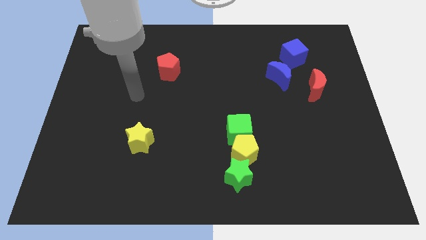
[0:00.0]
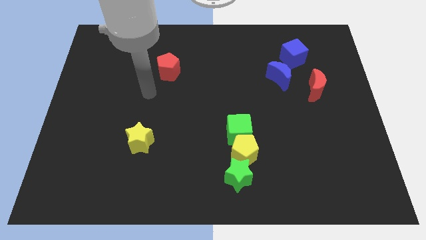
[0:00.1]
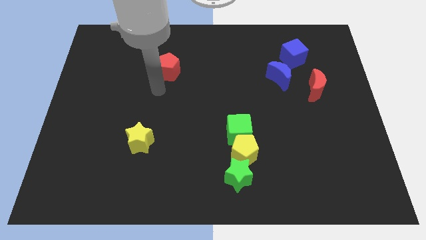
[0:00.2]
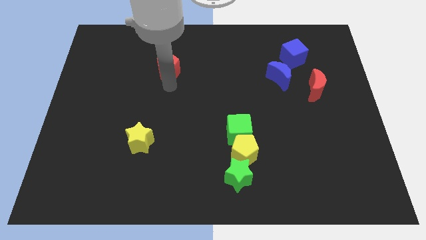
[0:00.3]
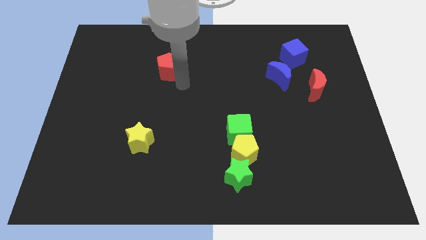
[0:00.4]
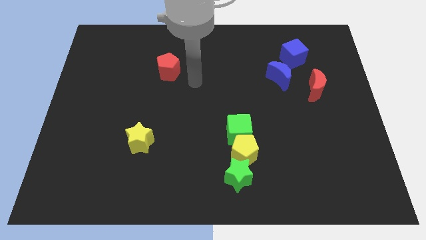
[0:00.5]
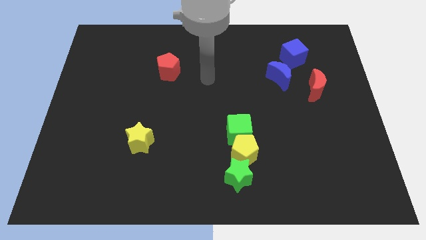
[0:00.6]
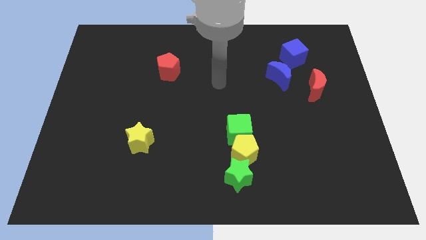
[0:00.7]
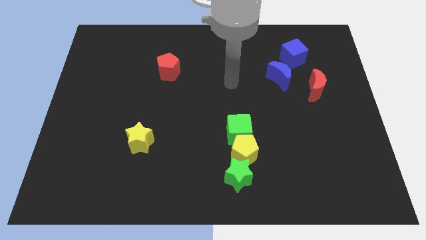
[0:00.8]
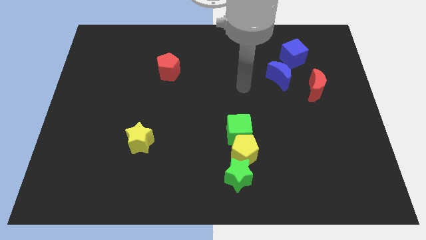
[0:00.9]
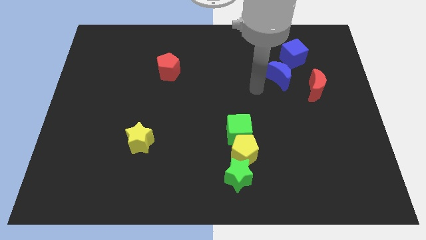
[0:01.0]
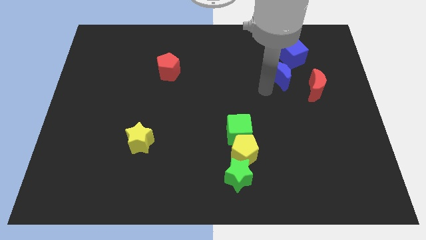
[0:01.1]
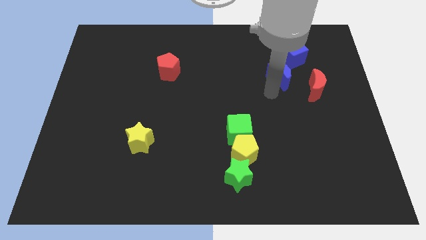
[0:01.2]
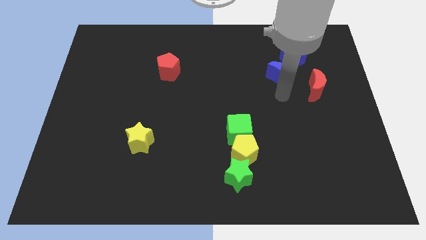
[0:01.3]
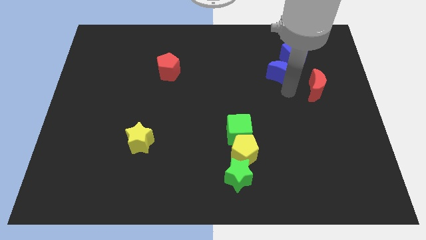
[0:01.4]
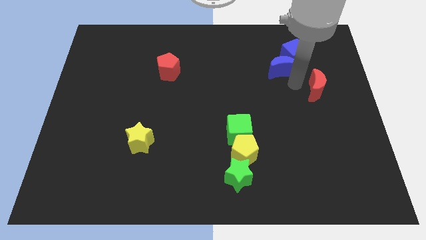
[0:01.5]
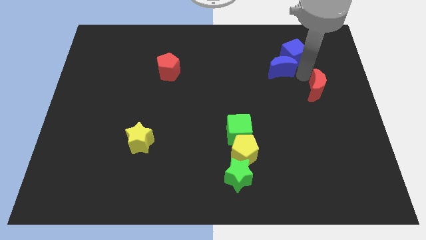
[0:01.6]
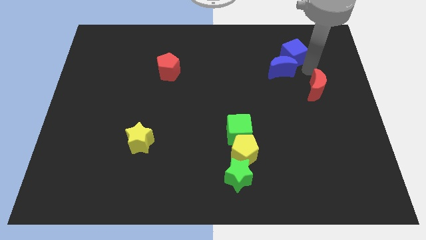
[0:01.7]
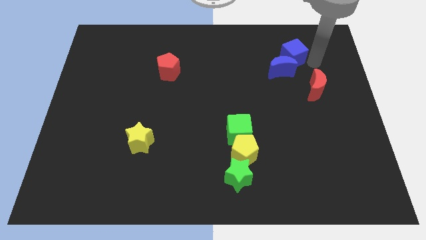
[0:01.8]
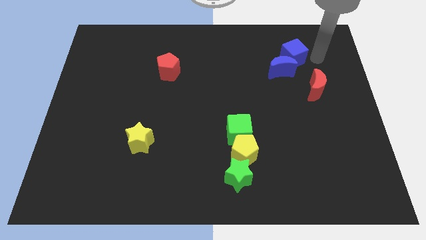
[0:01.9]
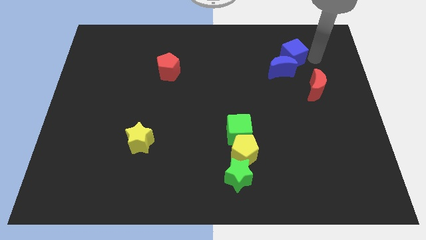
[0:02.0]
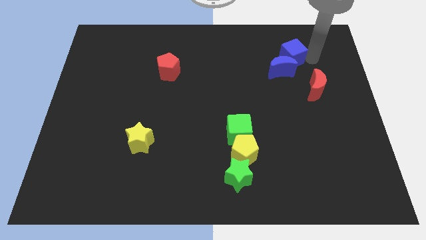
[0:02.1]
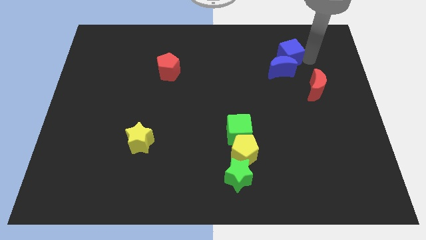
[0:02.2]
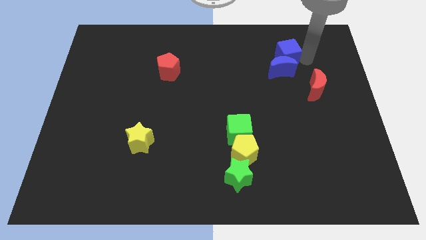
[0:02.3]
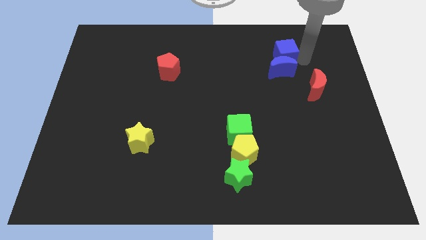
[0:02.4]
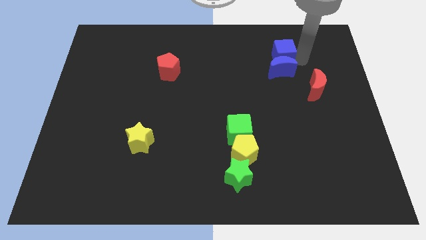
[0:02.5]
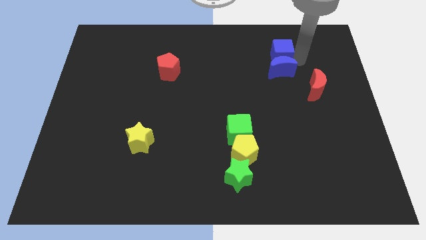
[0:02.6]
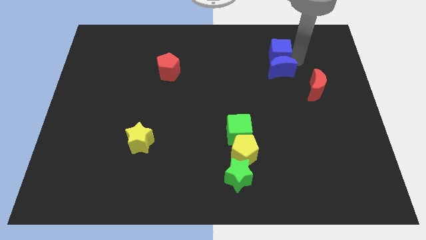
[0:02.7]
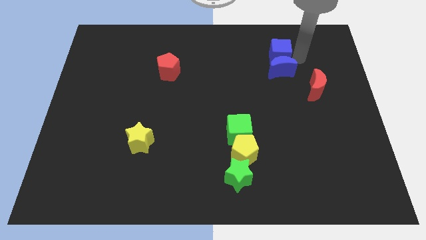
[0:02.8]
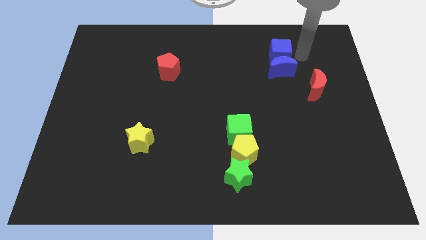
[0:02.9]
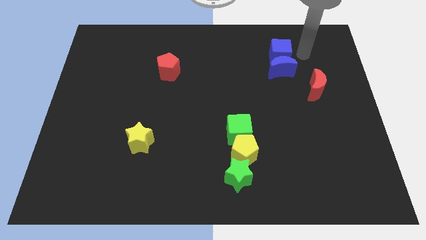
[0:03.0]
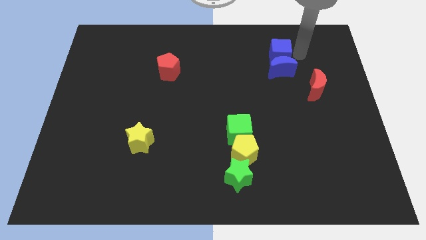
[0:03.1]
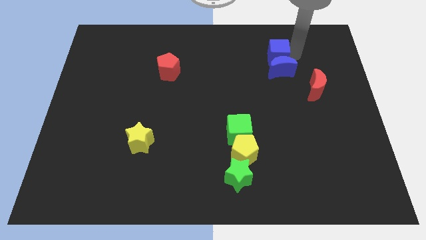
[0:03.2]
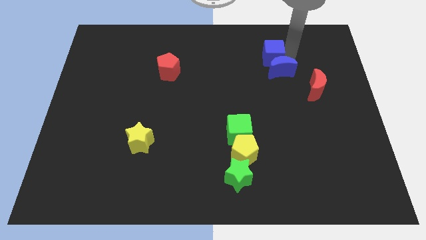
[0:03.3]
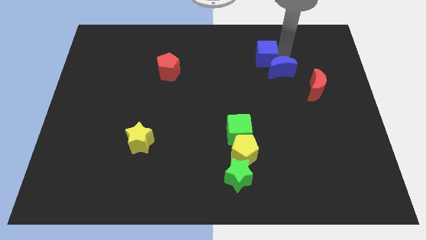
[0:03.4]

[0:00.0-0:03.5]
slightly slide the blue cube left

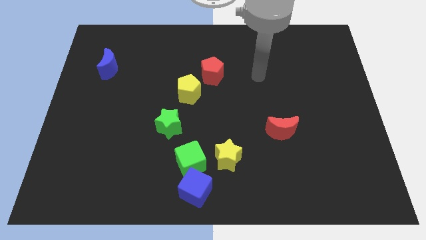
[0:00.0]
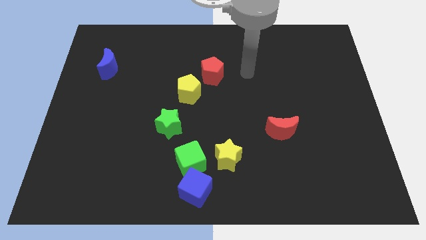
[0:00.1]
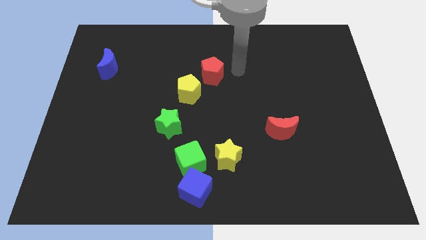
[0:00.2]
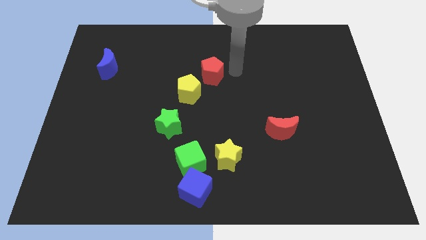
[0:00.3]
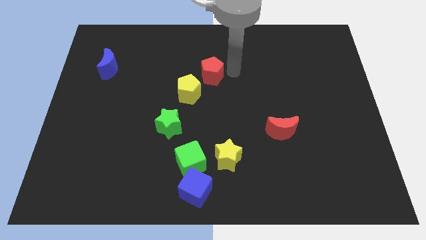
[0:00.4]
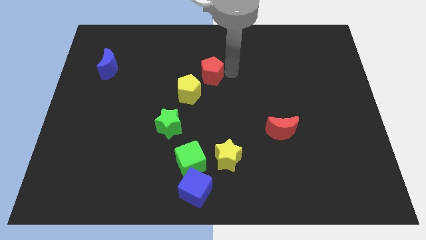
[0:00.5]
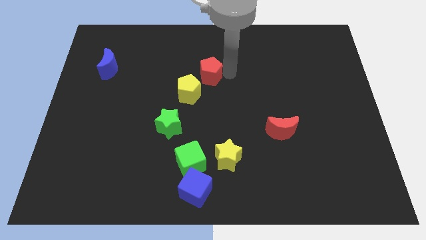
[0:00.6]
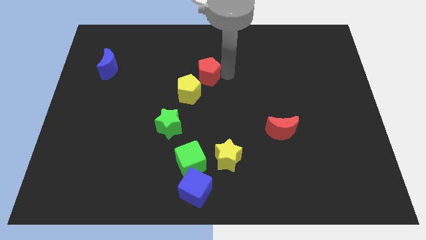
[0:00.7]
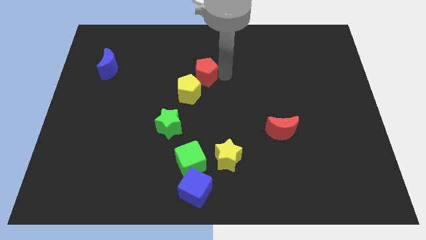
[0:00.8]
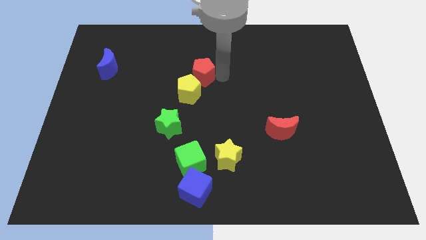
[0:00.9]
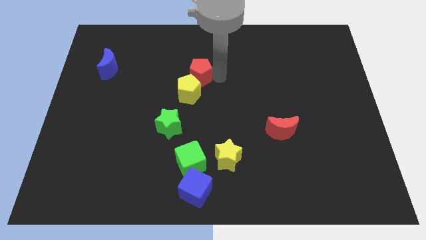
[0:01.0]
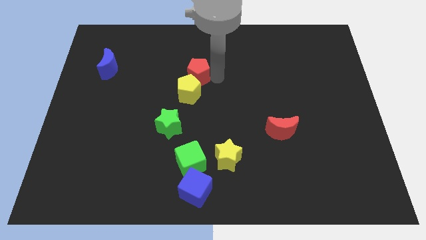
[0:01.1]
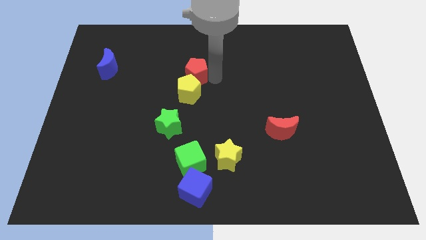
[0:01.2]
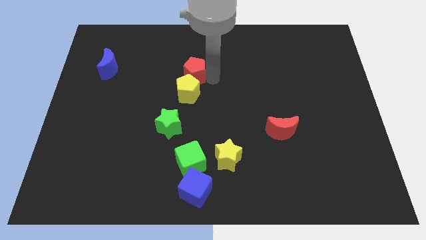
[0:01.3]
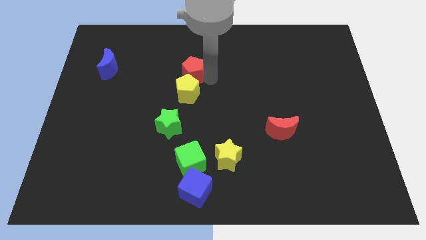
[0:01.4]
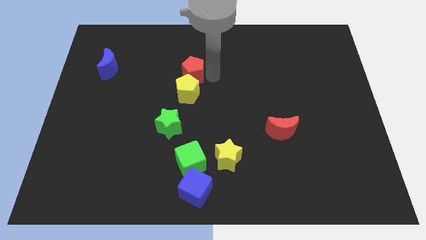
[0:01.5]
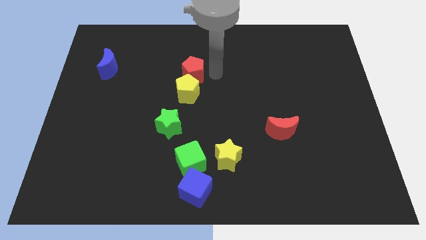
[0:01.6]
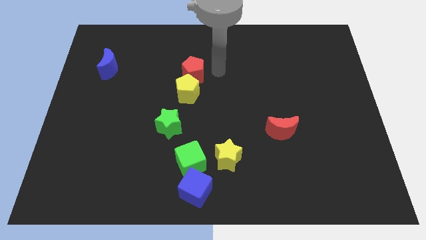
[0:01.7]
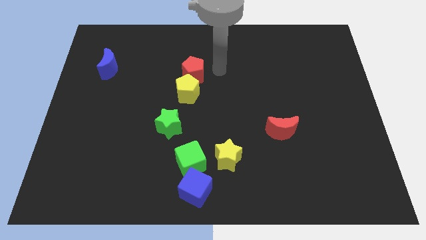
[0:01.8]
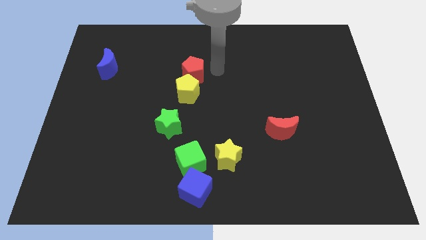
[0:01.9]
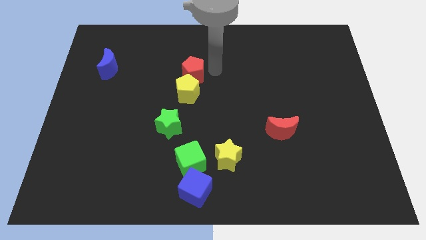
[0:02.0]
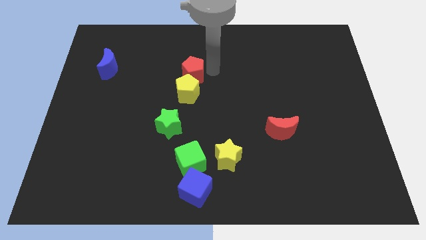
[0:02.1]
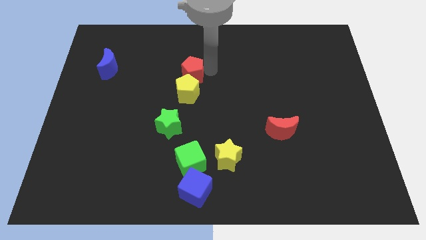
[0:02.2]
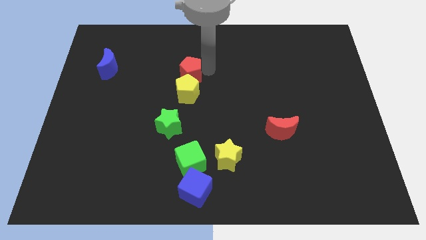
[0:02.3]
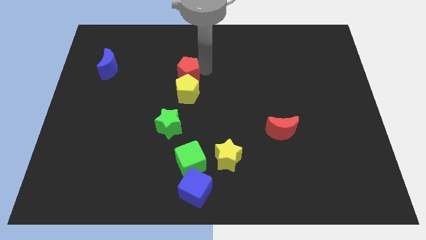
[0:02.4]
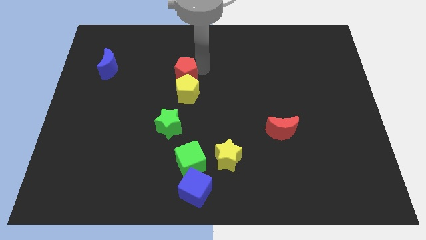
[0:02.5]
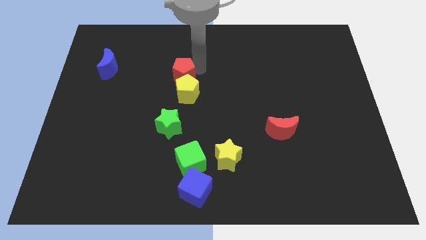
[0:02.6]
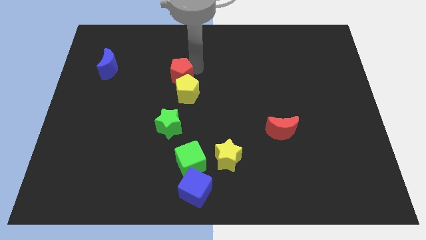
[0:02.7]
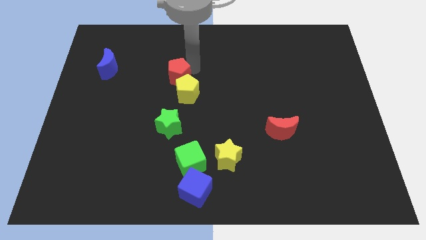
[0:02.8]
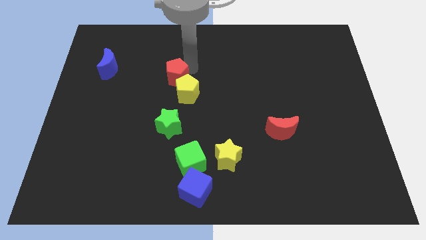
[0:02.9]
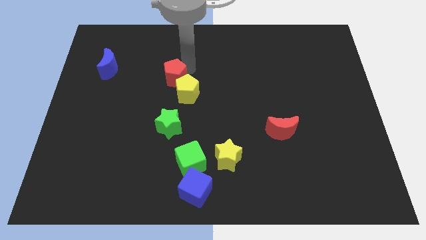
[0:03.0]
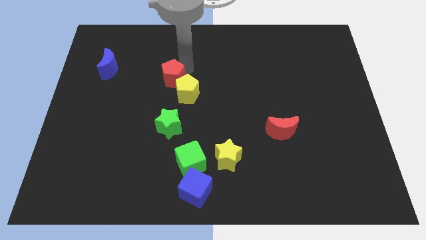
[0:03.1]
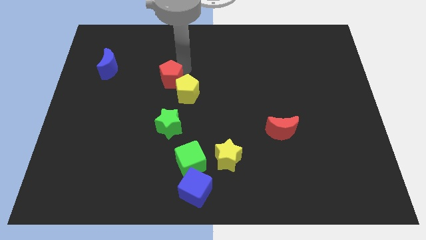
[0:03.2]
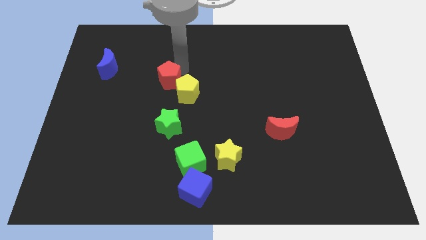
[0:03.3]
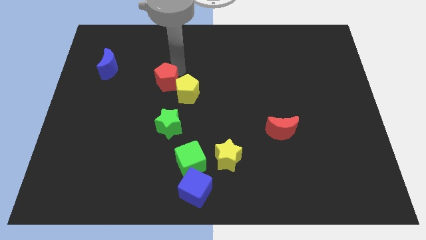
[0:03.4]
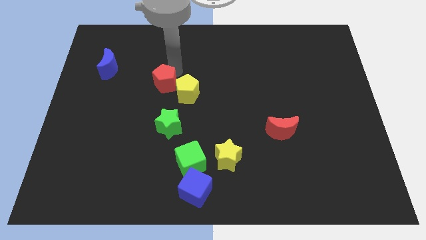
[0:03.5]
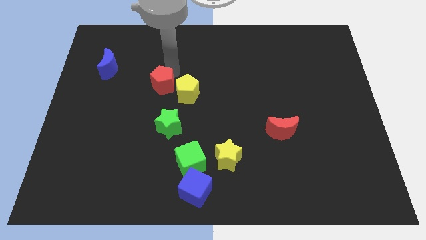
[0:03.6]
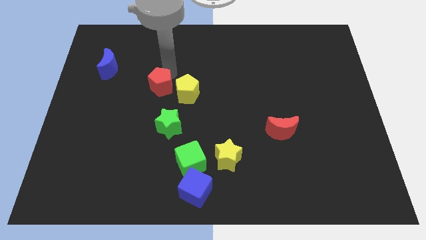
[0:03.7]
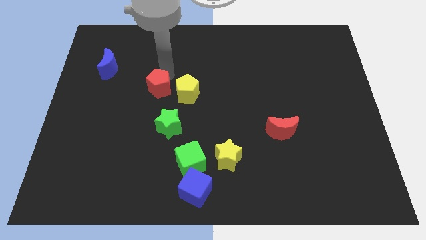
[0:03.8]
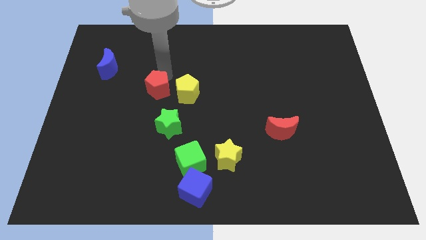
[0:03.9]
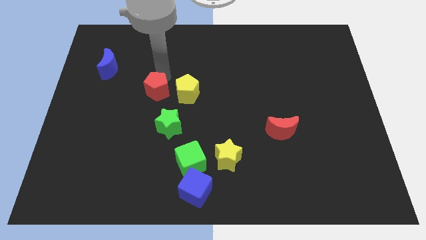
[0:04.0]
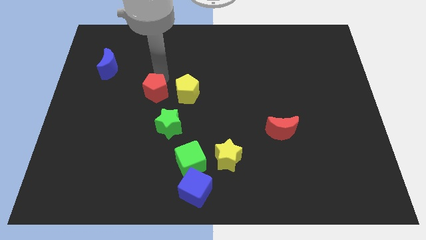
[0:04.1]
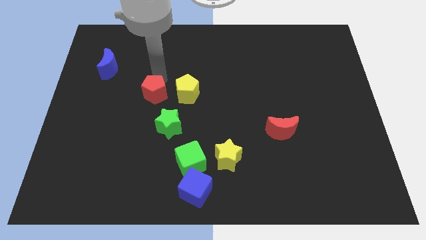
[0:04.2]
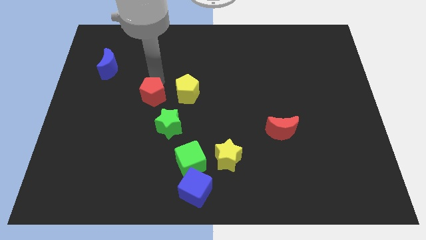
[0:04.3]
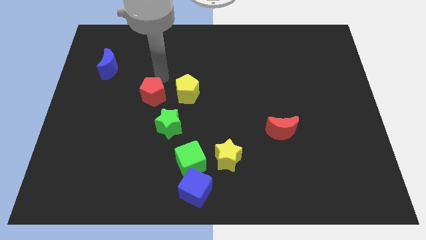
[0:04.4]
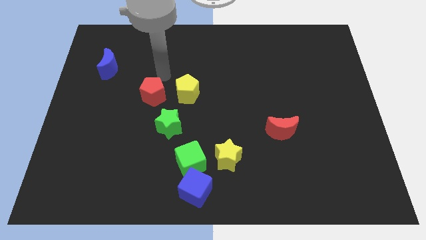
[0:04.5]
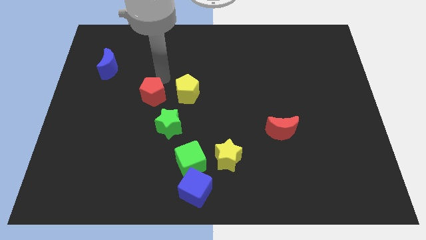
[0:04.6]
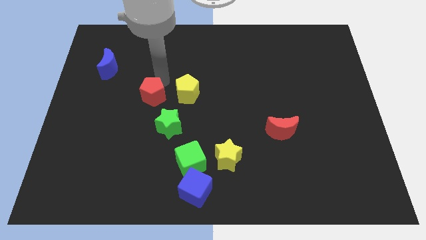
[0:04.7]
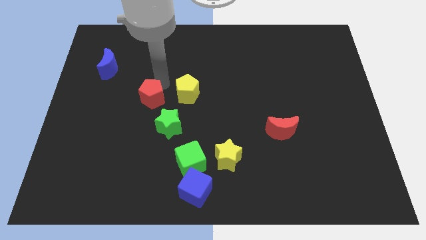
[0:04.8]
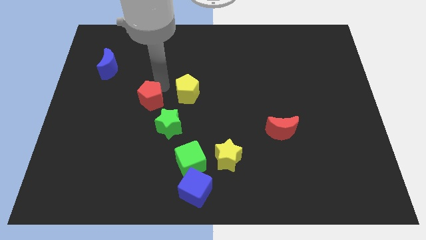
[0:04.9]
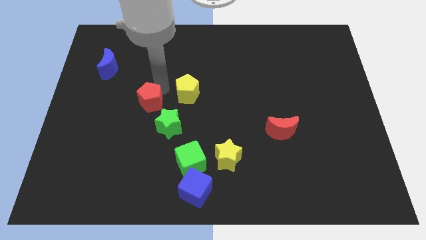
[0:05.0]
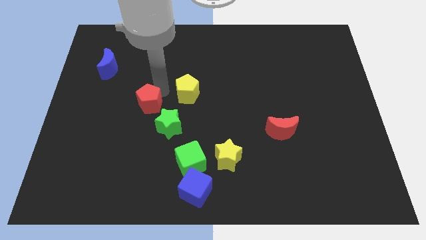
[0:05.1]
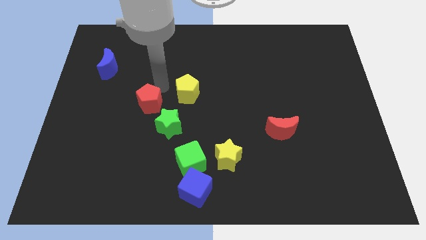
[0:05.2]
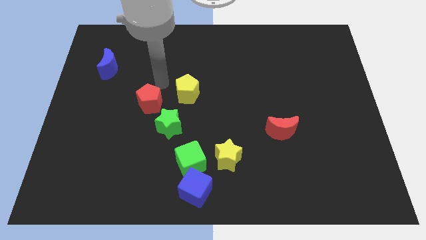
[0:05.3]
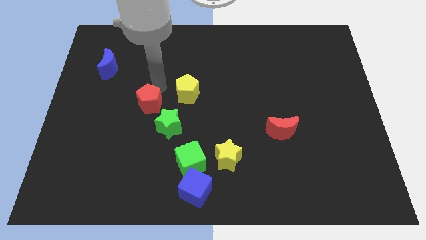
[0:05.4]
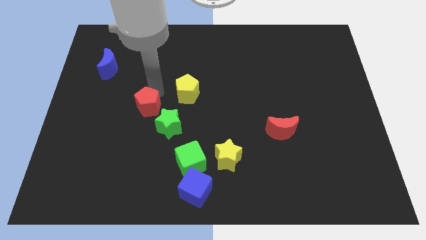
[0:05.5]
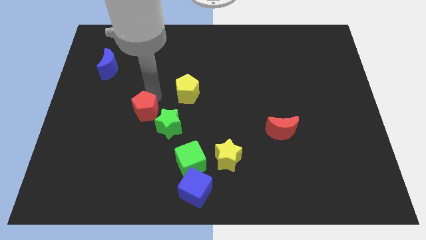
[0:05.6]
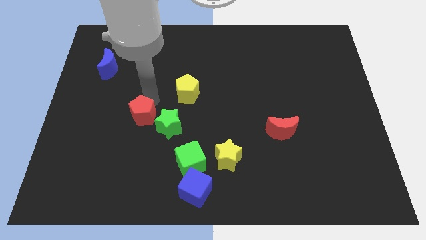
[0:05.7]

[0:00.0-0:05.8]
move the red pentagon down and left
